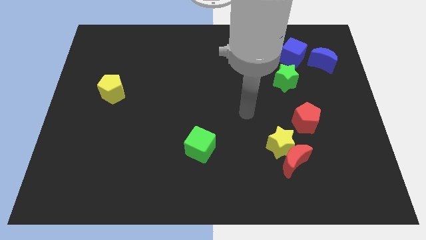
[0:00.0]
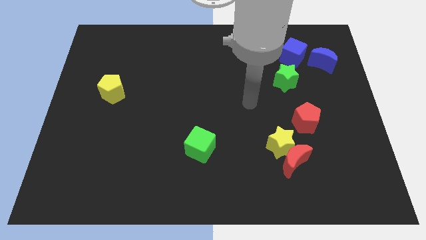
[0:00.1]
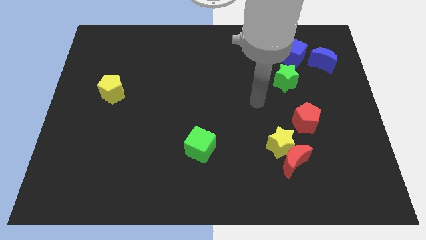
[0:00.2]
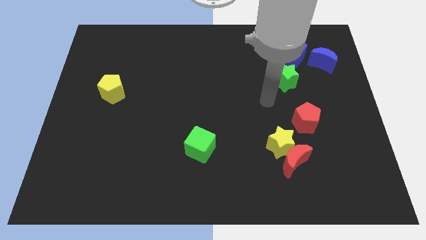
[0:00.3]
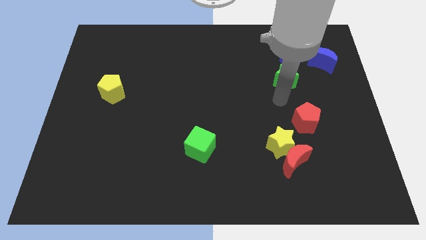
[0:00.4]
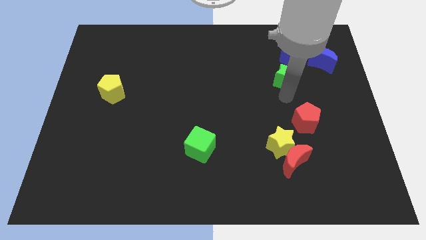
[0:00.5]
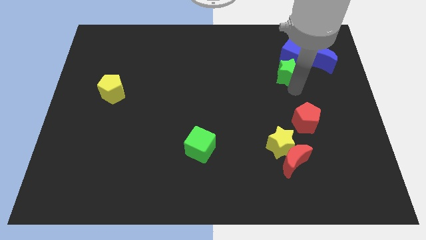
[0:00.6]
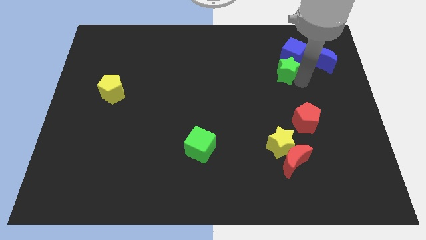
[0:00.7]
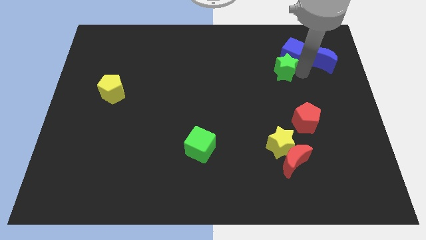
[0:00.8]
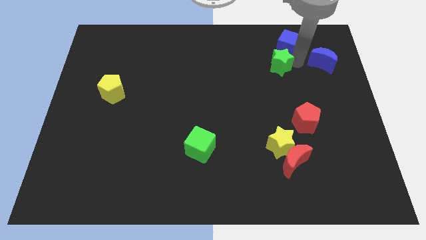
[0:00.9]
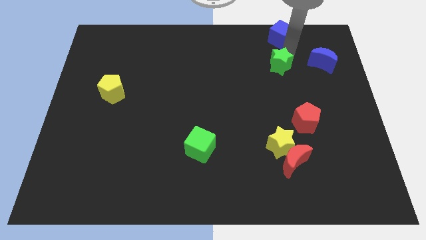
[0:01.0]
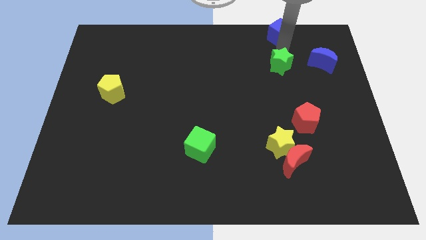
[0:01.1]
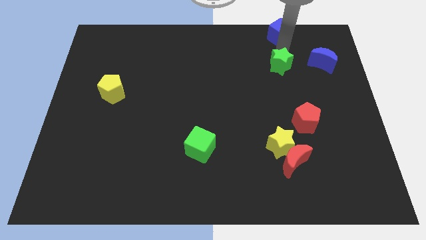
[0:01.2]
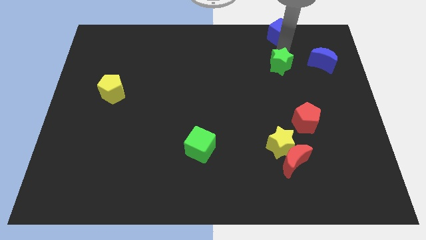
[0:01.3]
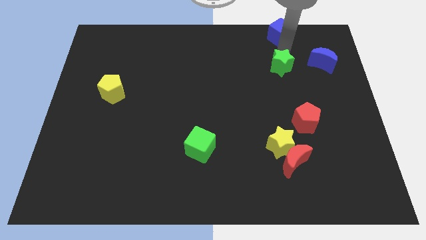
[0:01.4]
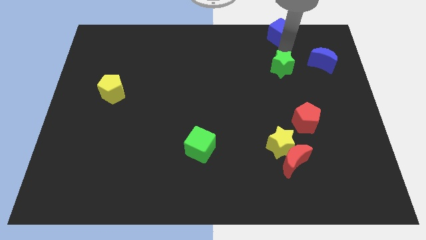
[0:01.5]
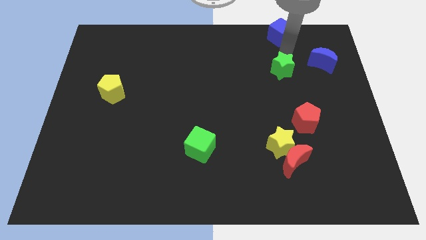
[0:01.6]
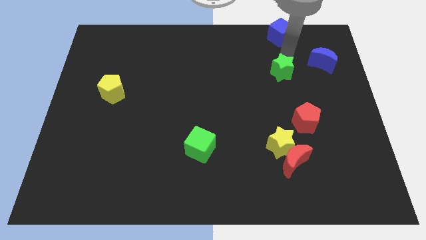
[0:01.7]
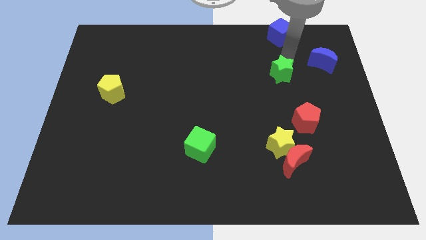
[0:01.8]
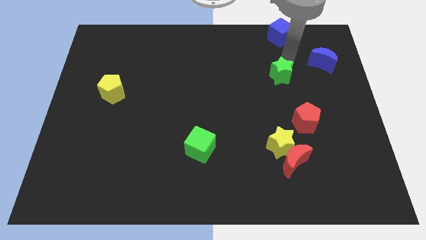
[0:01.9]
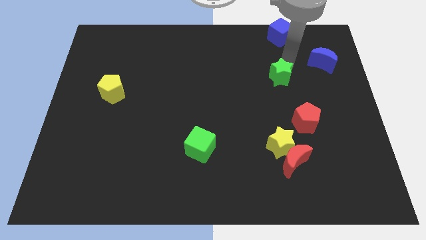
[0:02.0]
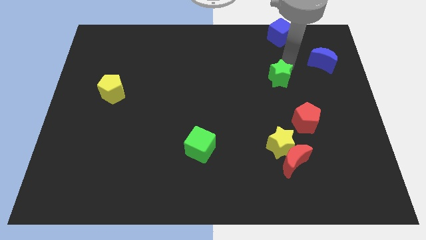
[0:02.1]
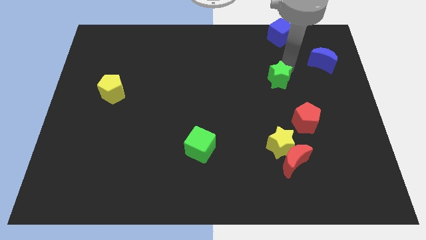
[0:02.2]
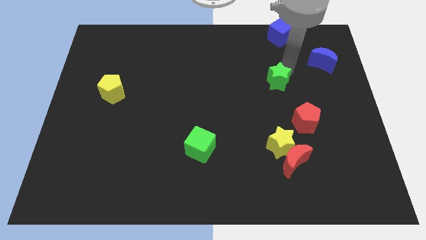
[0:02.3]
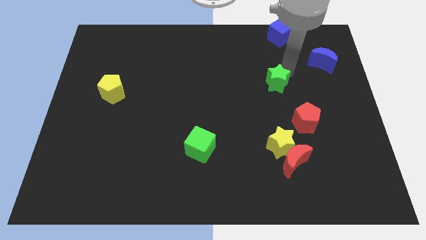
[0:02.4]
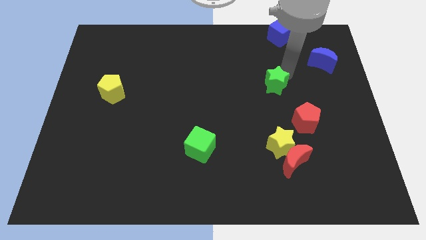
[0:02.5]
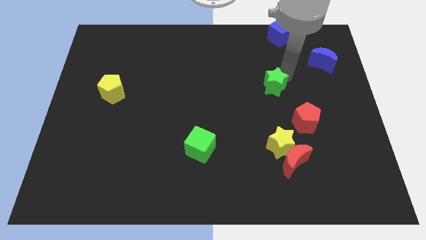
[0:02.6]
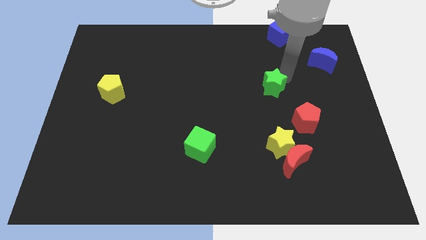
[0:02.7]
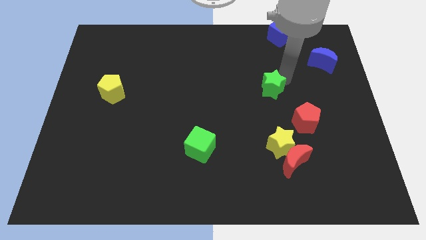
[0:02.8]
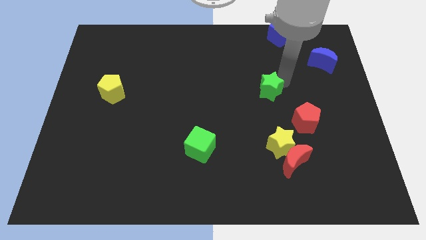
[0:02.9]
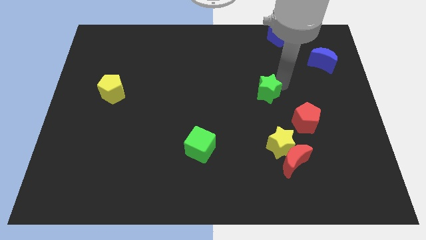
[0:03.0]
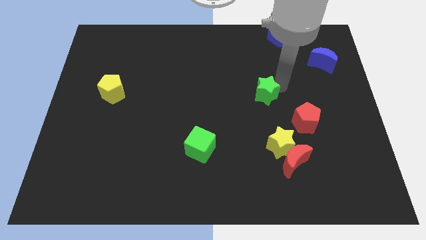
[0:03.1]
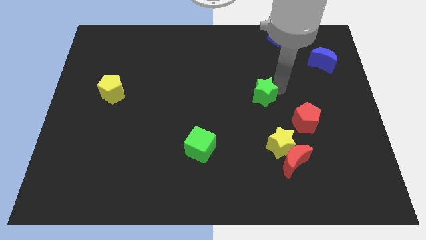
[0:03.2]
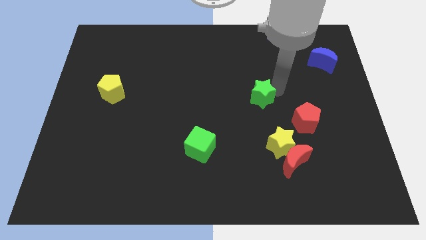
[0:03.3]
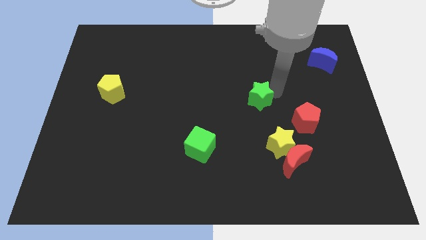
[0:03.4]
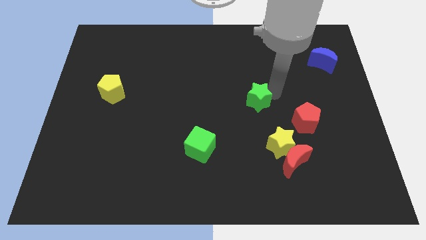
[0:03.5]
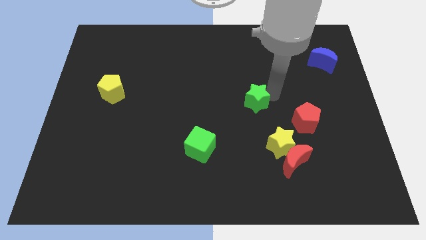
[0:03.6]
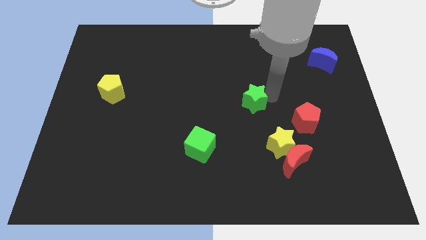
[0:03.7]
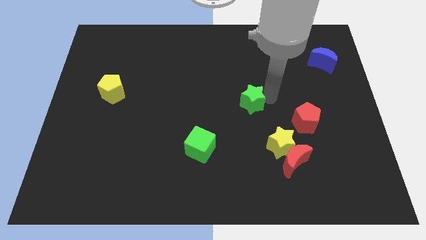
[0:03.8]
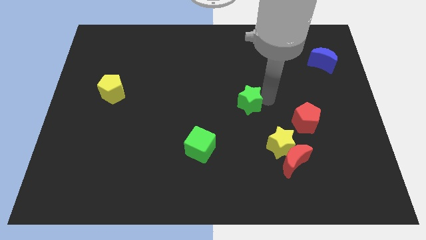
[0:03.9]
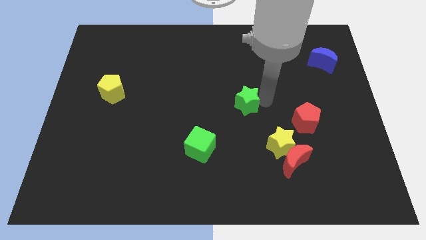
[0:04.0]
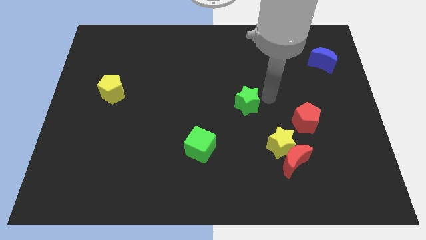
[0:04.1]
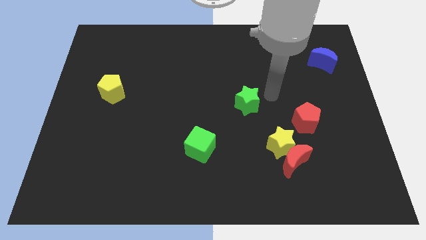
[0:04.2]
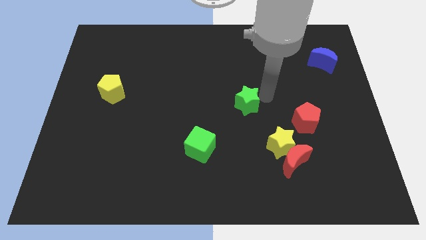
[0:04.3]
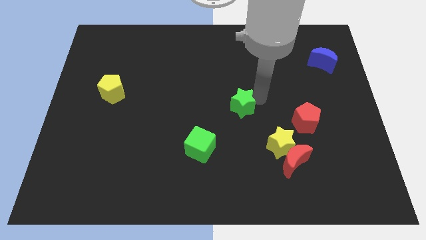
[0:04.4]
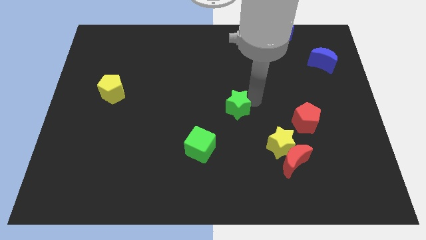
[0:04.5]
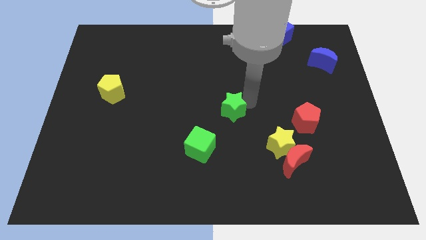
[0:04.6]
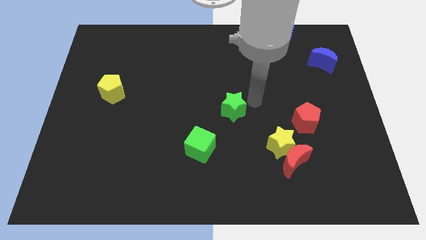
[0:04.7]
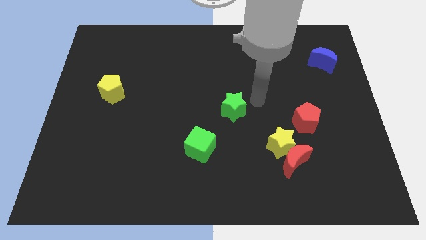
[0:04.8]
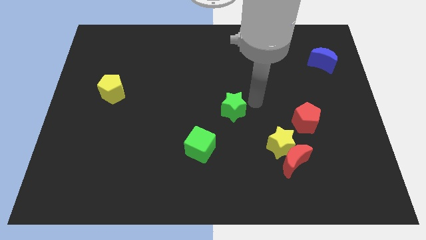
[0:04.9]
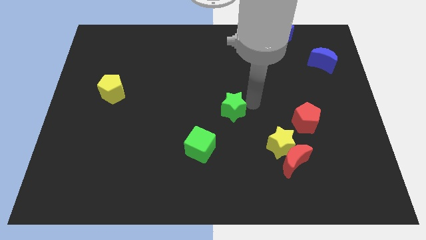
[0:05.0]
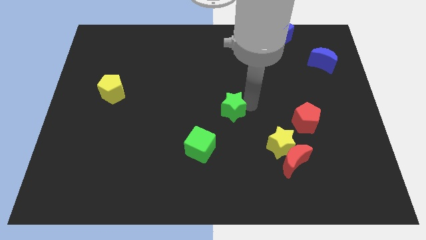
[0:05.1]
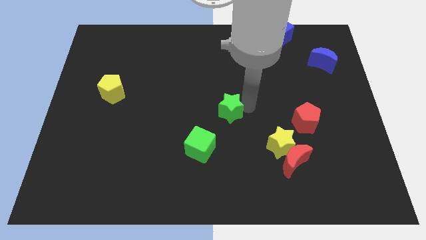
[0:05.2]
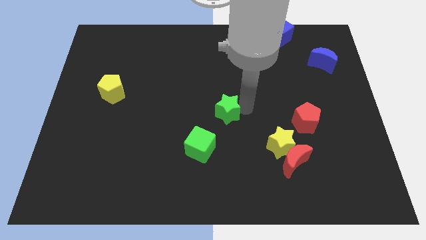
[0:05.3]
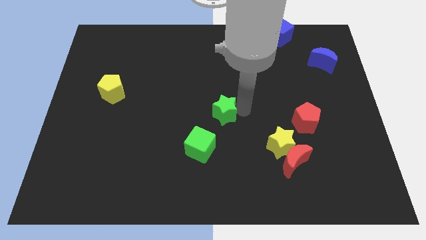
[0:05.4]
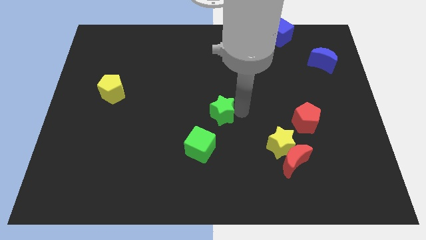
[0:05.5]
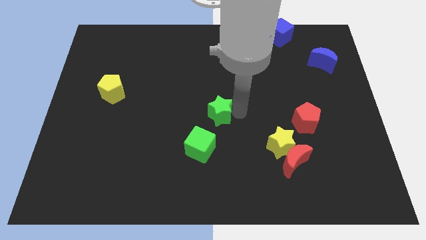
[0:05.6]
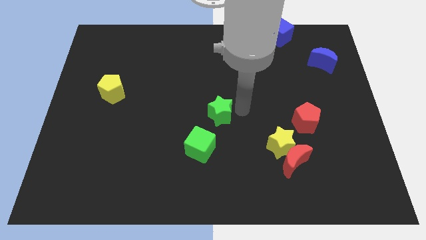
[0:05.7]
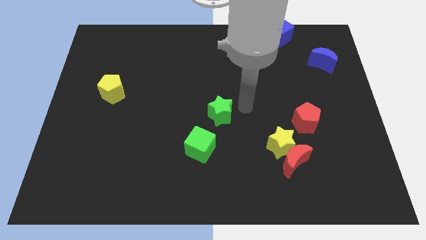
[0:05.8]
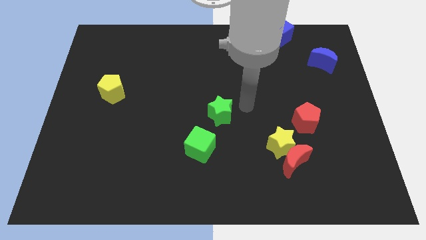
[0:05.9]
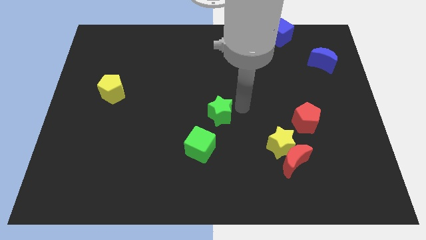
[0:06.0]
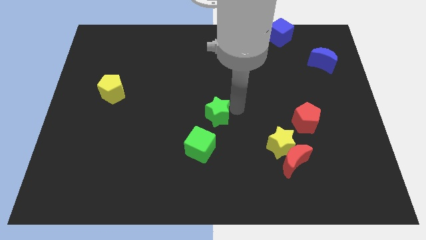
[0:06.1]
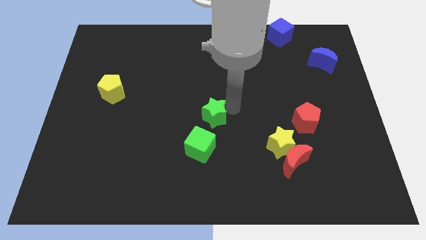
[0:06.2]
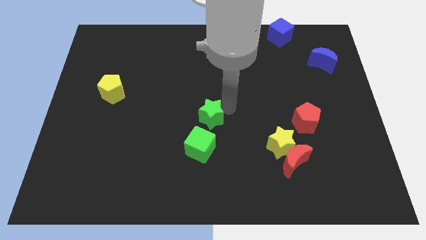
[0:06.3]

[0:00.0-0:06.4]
move the green star downwards and to the left diagonally

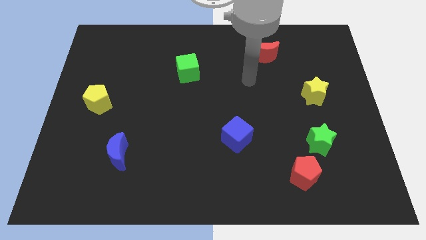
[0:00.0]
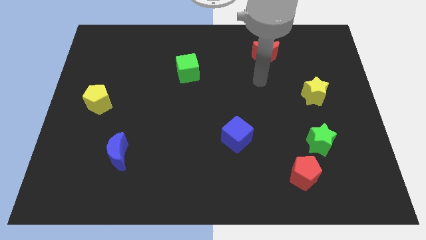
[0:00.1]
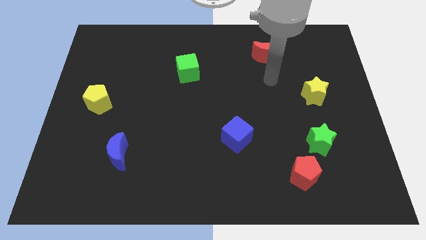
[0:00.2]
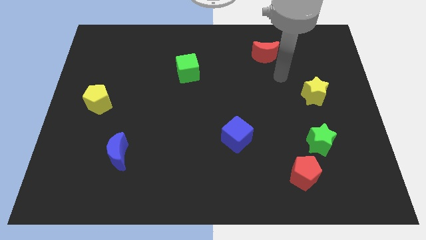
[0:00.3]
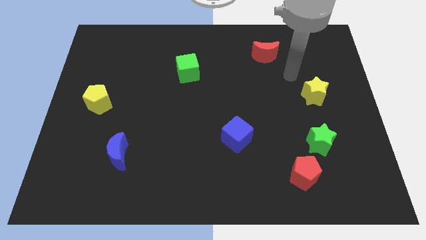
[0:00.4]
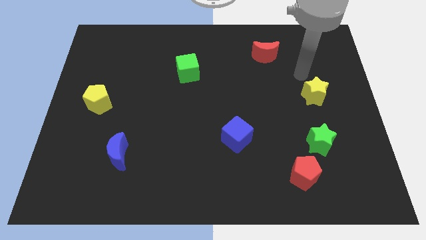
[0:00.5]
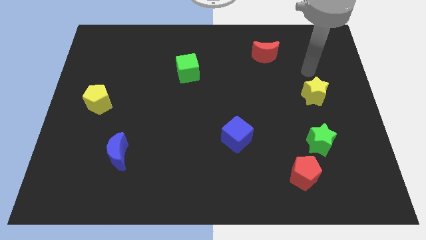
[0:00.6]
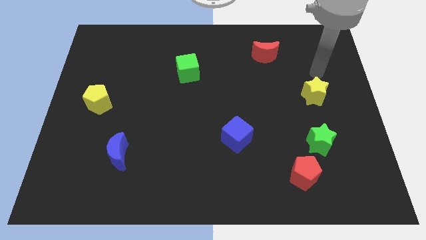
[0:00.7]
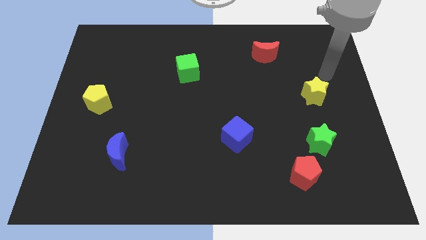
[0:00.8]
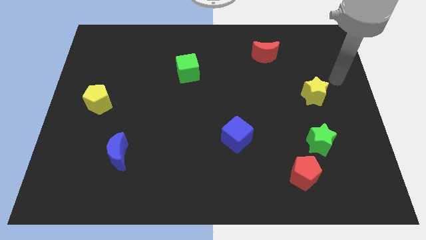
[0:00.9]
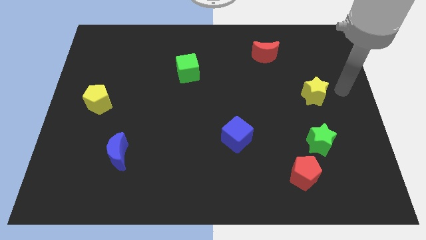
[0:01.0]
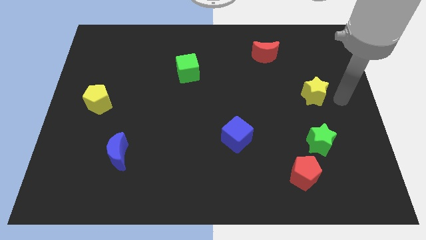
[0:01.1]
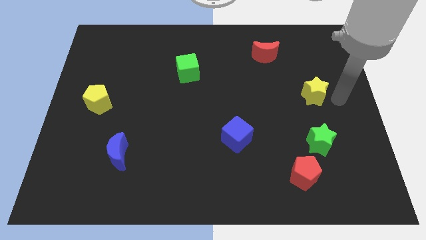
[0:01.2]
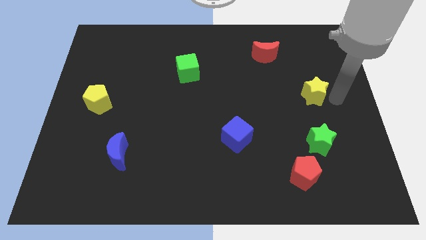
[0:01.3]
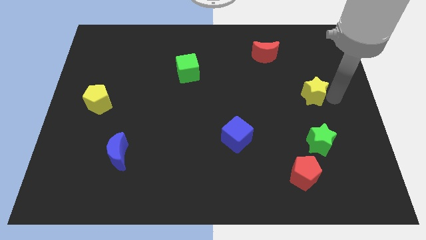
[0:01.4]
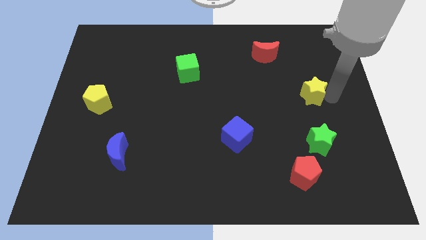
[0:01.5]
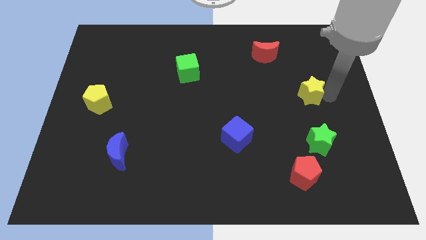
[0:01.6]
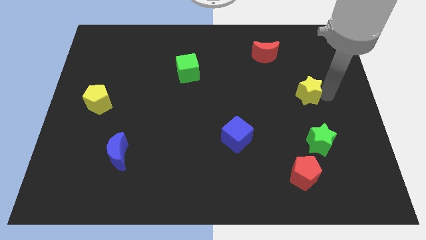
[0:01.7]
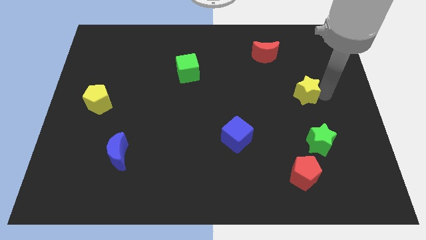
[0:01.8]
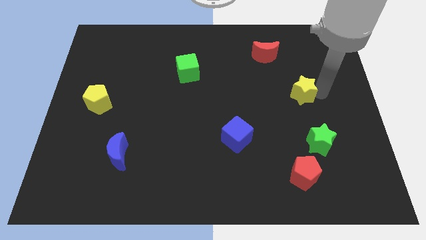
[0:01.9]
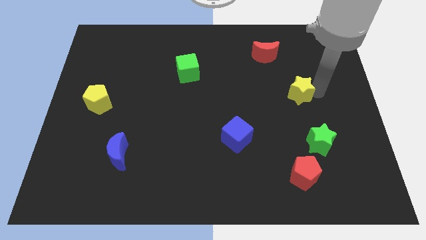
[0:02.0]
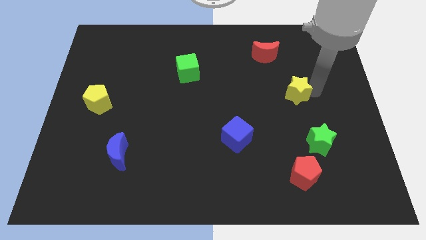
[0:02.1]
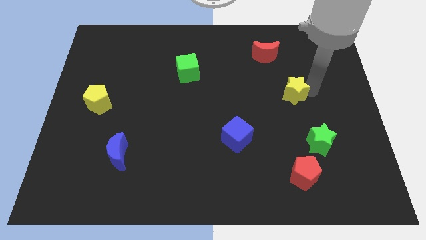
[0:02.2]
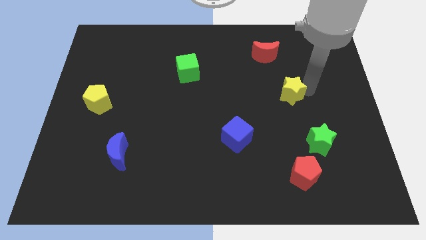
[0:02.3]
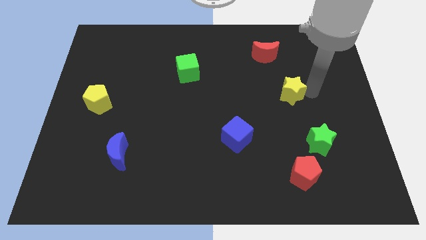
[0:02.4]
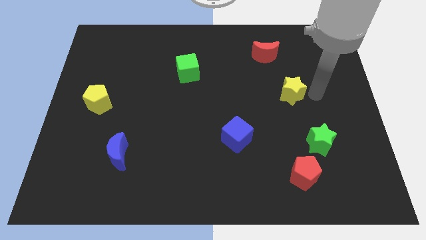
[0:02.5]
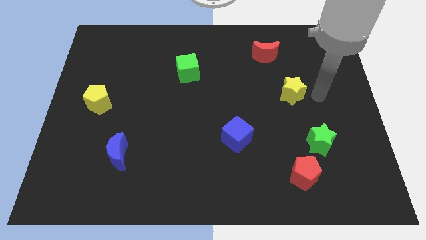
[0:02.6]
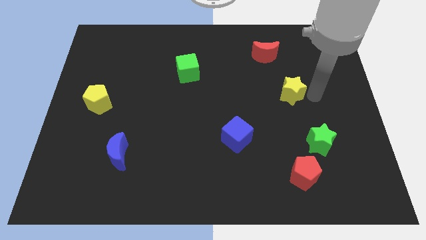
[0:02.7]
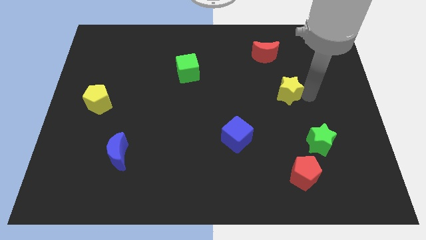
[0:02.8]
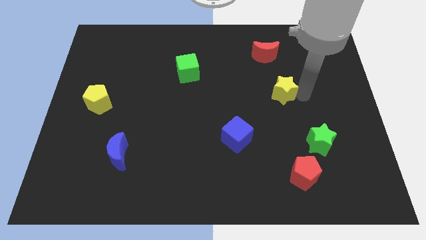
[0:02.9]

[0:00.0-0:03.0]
slightly push the yellow star to the left
